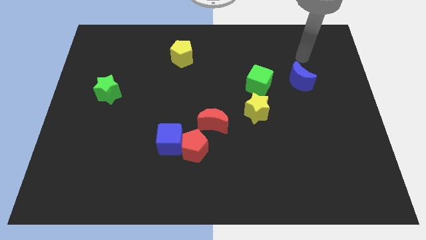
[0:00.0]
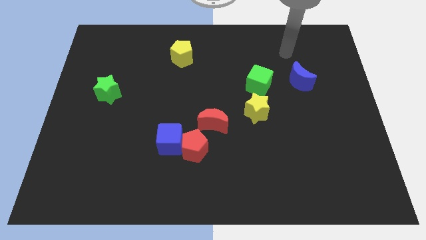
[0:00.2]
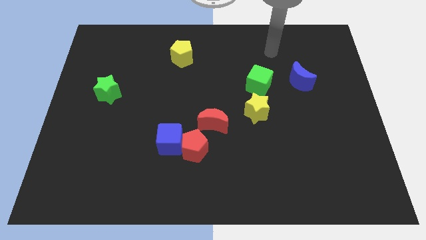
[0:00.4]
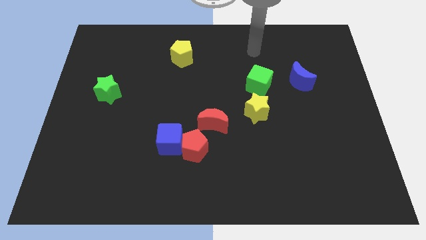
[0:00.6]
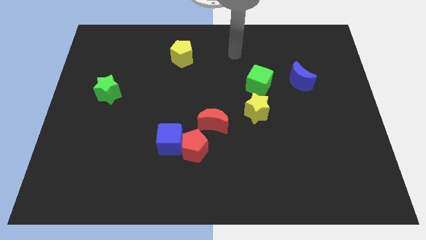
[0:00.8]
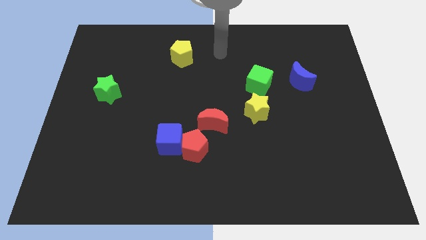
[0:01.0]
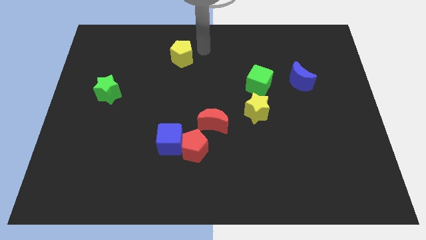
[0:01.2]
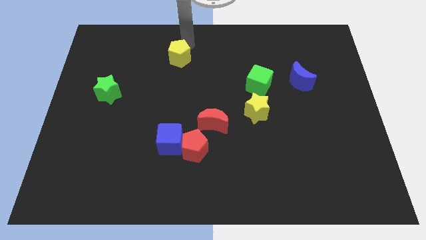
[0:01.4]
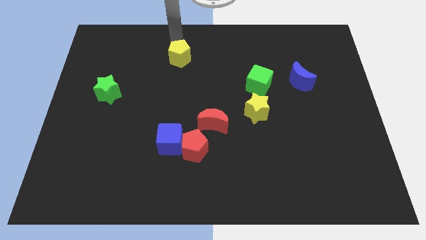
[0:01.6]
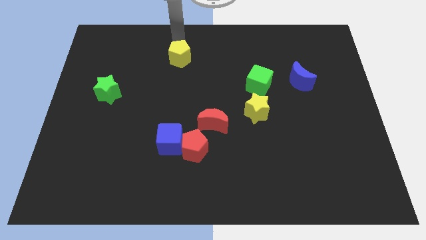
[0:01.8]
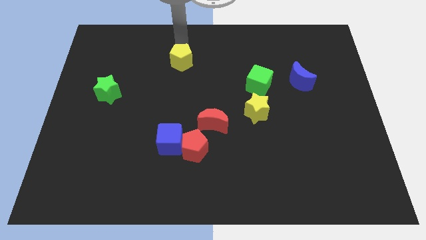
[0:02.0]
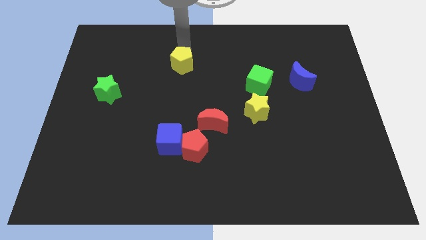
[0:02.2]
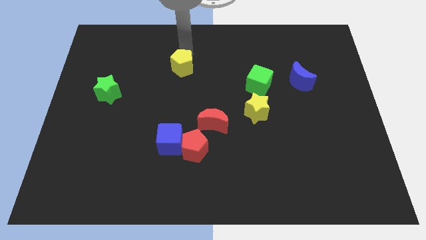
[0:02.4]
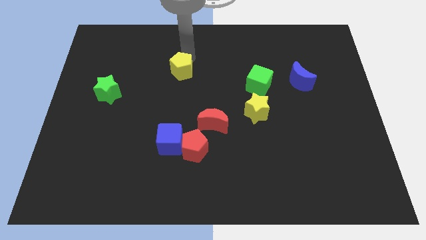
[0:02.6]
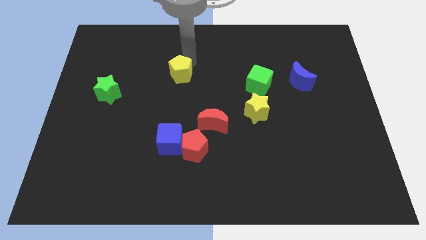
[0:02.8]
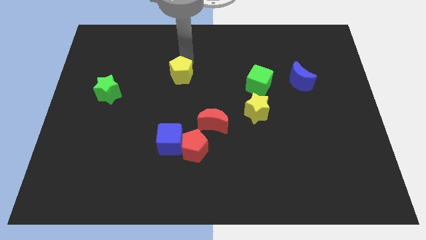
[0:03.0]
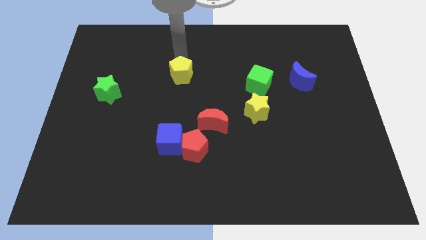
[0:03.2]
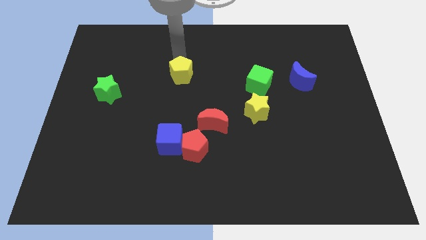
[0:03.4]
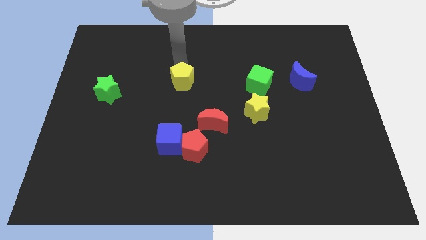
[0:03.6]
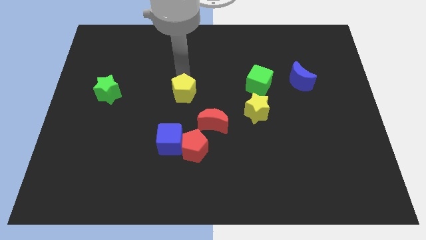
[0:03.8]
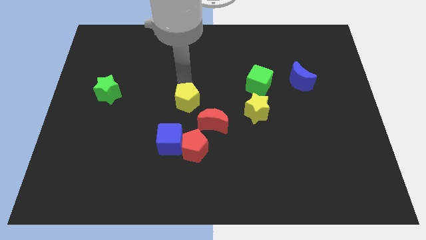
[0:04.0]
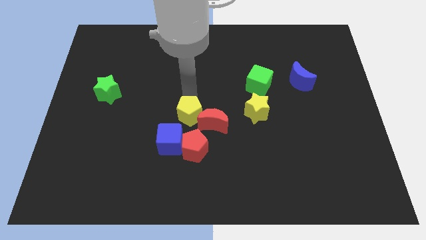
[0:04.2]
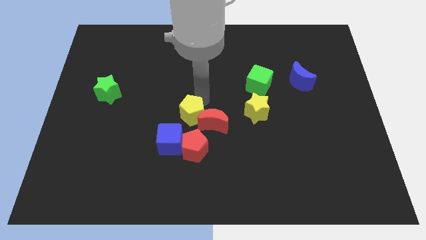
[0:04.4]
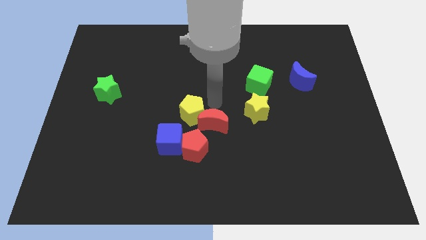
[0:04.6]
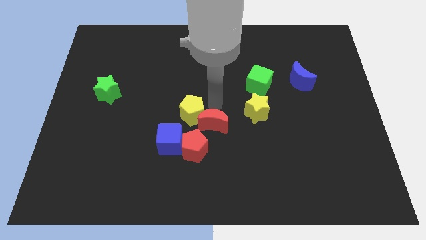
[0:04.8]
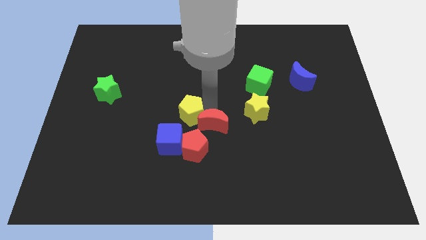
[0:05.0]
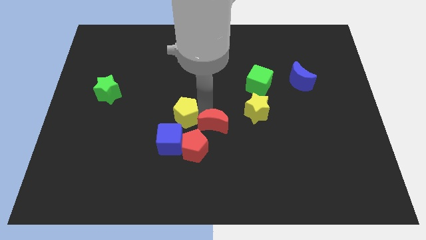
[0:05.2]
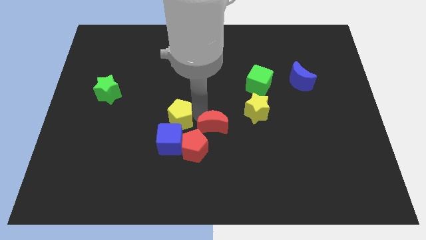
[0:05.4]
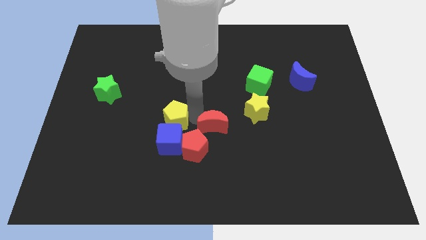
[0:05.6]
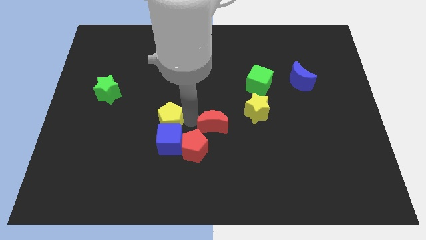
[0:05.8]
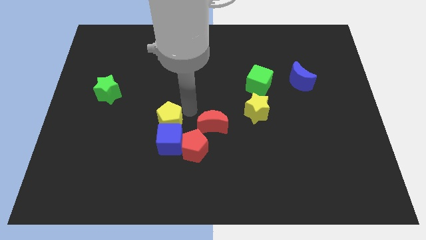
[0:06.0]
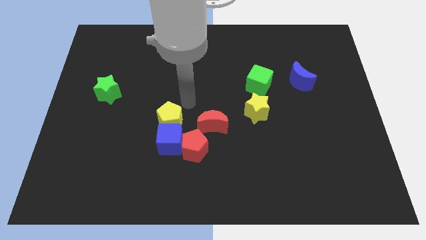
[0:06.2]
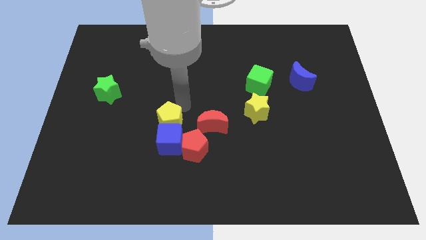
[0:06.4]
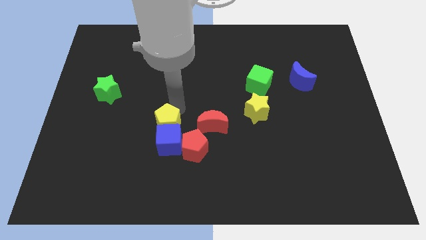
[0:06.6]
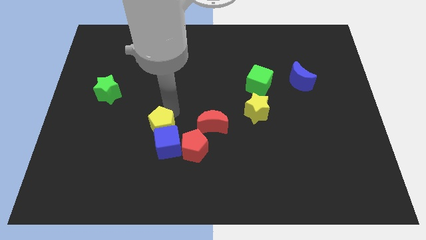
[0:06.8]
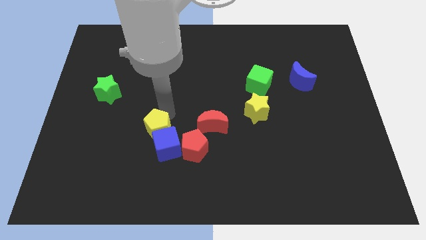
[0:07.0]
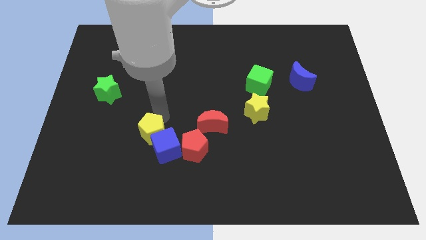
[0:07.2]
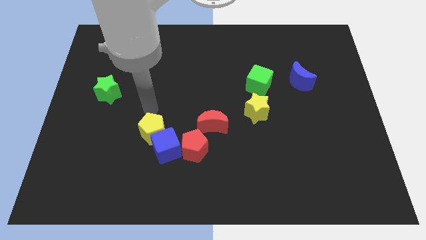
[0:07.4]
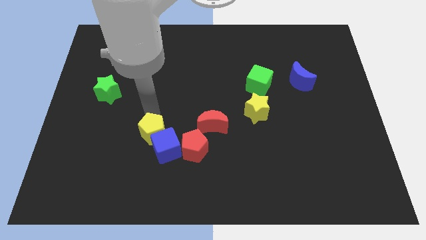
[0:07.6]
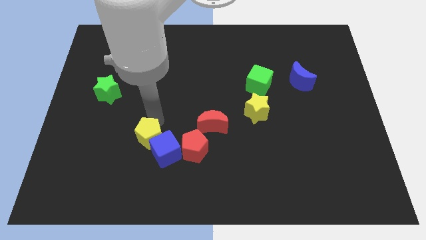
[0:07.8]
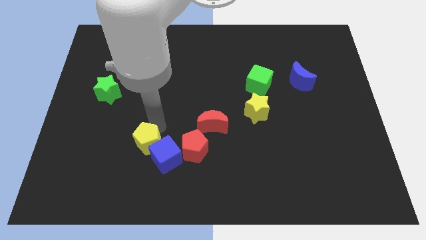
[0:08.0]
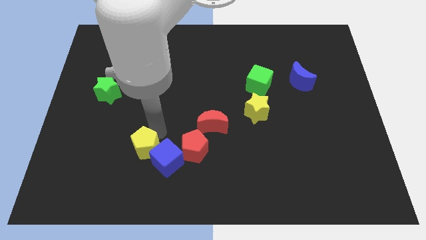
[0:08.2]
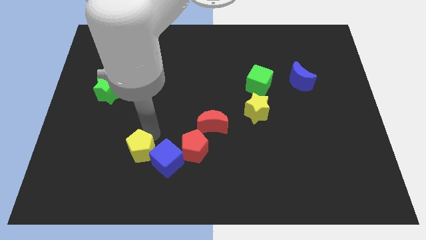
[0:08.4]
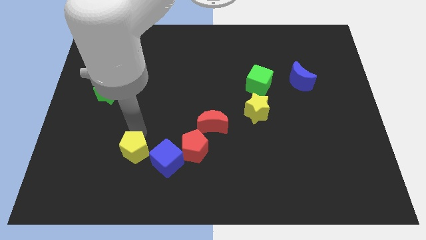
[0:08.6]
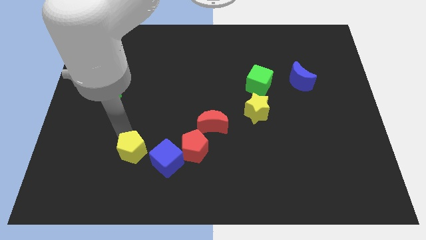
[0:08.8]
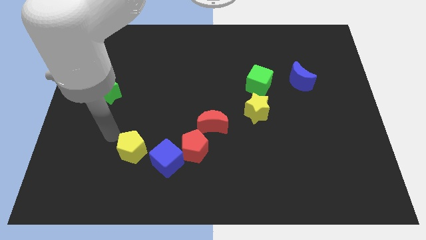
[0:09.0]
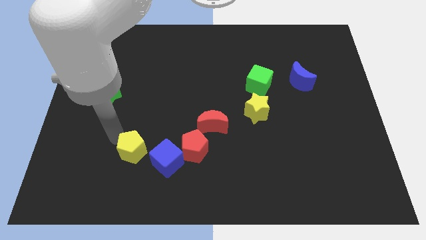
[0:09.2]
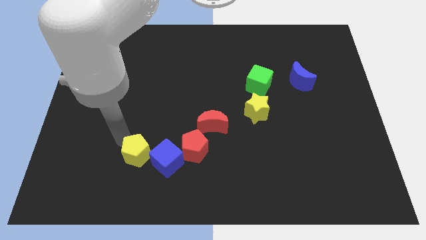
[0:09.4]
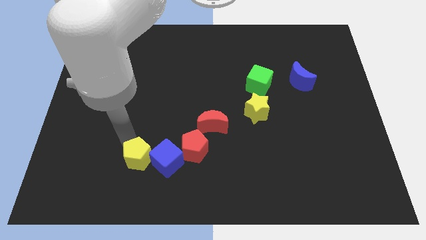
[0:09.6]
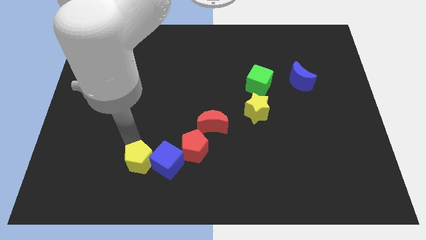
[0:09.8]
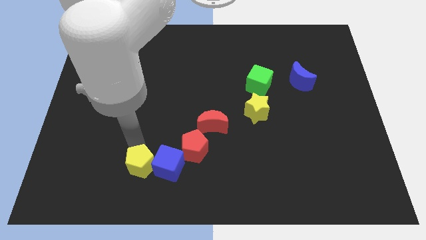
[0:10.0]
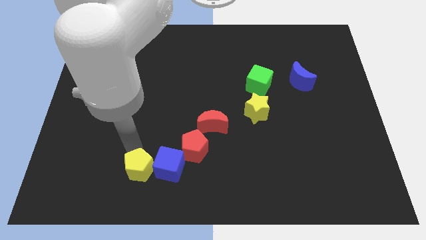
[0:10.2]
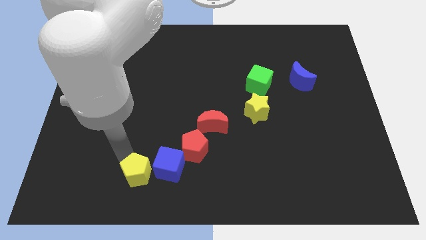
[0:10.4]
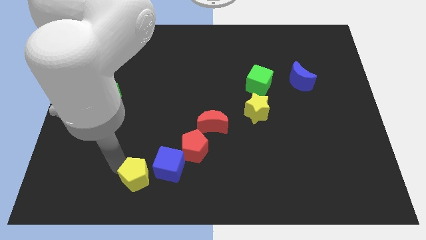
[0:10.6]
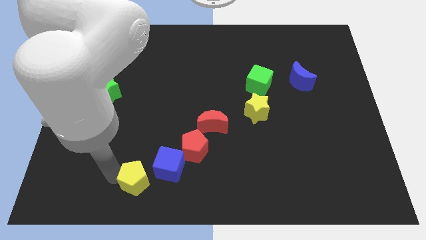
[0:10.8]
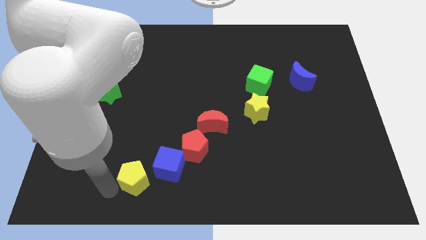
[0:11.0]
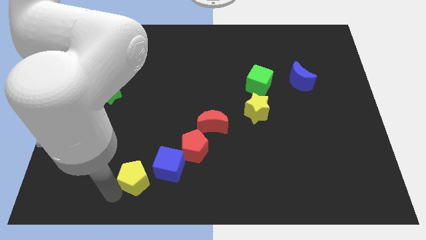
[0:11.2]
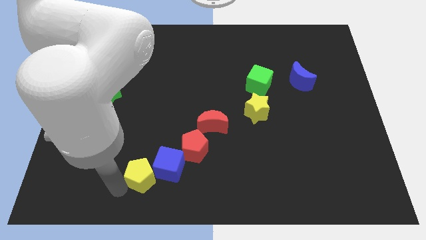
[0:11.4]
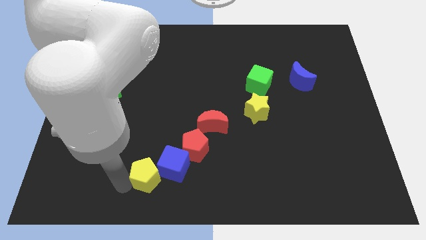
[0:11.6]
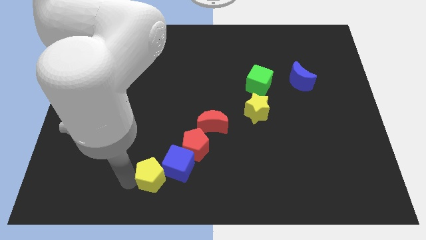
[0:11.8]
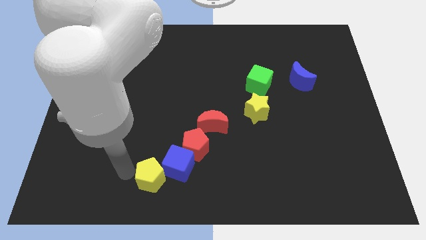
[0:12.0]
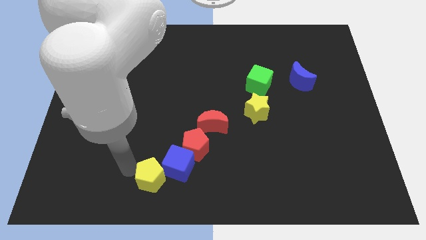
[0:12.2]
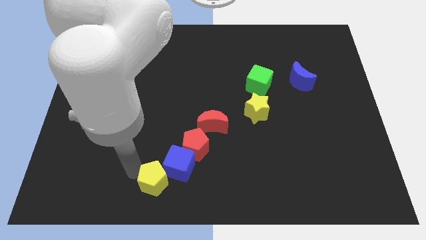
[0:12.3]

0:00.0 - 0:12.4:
put the yellow pentagon to the bottom

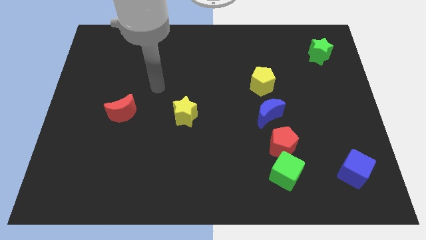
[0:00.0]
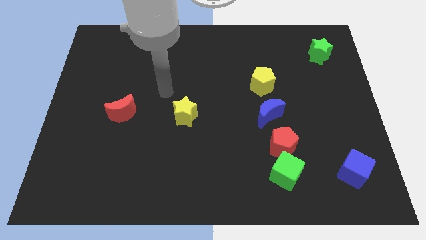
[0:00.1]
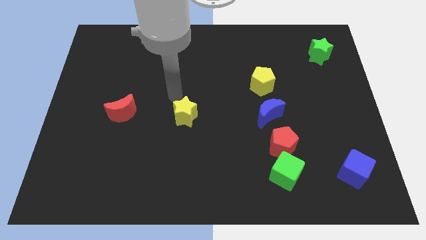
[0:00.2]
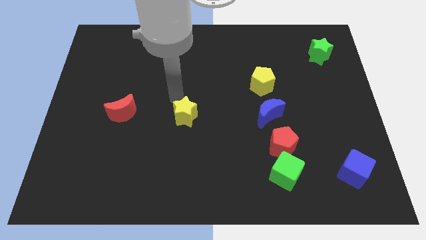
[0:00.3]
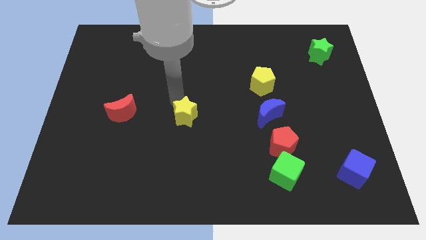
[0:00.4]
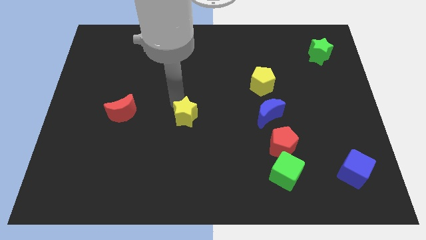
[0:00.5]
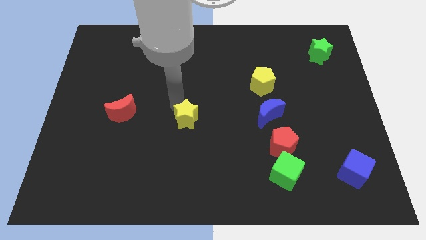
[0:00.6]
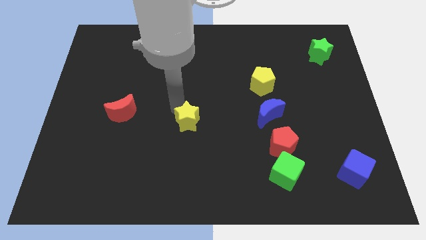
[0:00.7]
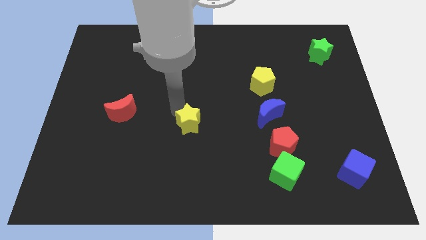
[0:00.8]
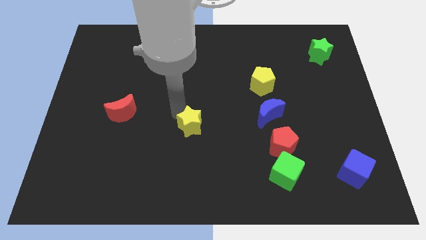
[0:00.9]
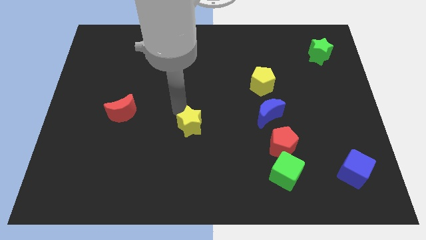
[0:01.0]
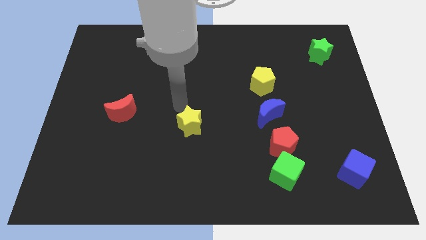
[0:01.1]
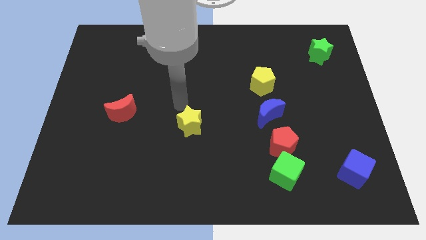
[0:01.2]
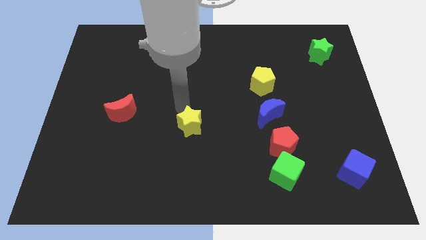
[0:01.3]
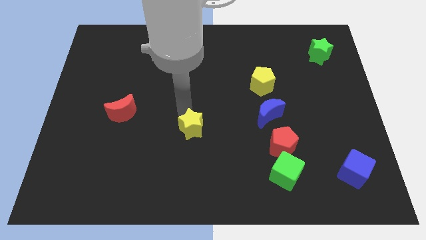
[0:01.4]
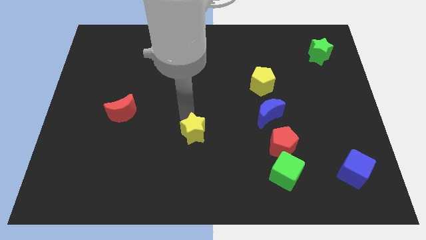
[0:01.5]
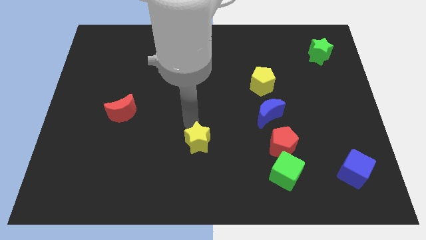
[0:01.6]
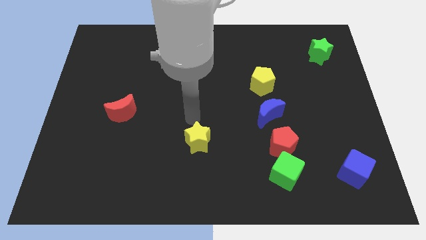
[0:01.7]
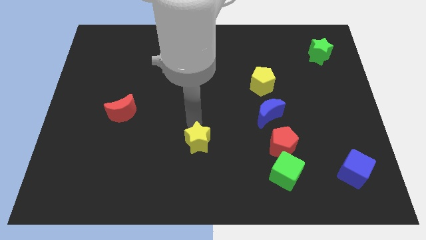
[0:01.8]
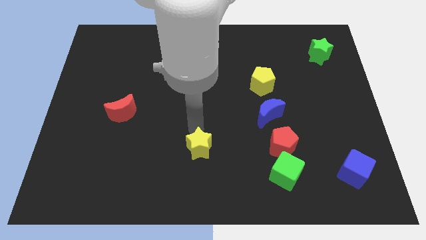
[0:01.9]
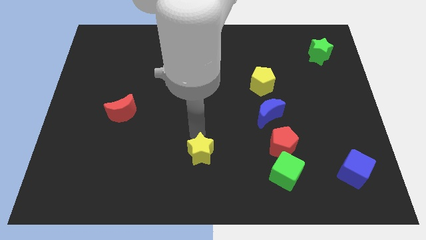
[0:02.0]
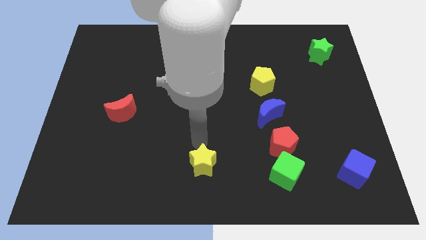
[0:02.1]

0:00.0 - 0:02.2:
slide the yellow star to the bottom side
